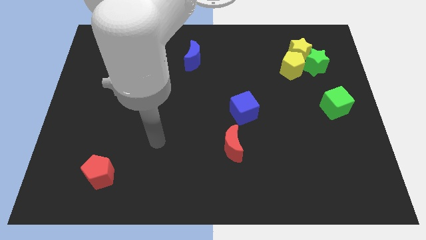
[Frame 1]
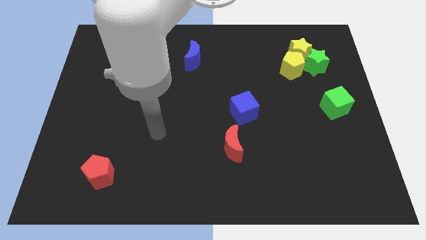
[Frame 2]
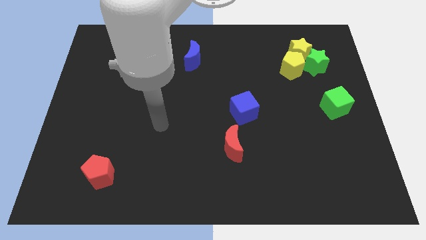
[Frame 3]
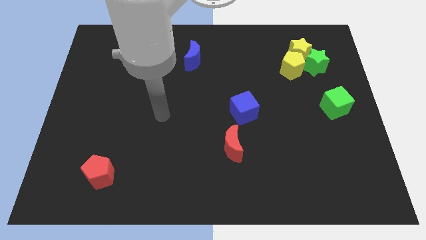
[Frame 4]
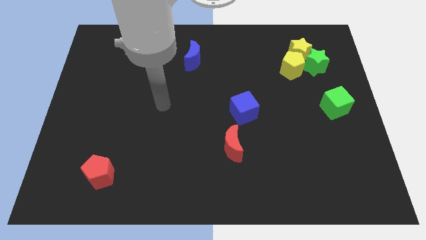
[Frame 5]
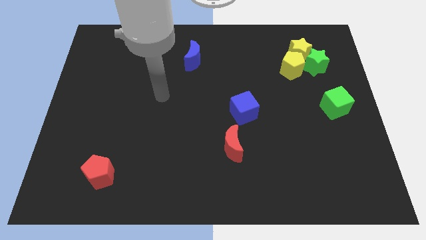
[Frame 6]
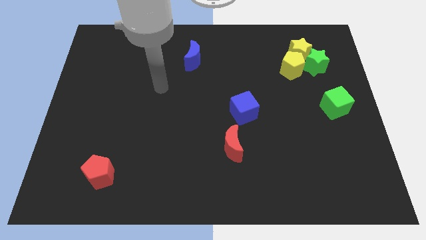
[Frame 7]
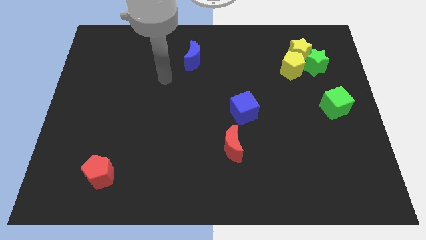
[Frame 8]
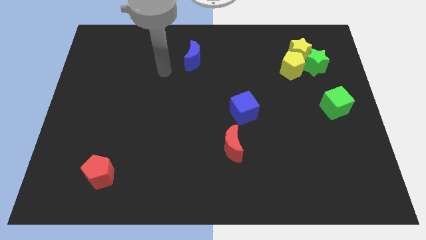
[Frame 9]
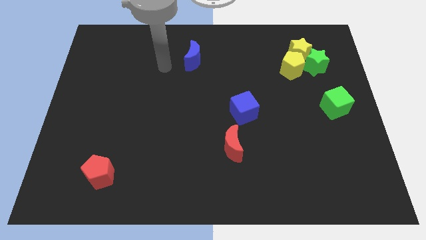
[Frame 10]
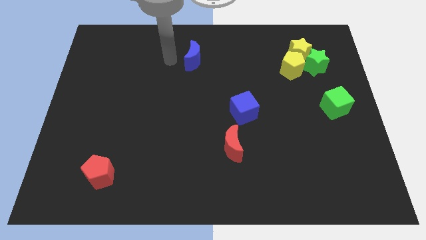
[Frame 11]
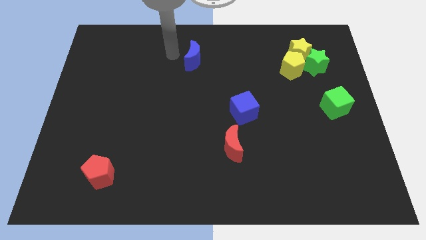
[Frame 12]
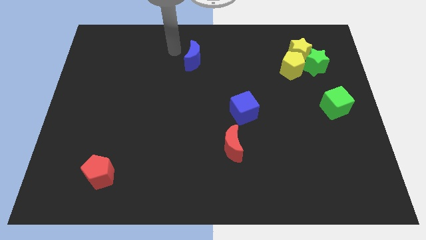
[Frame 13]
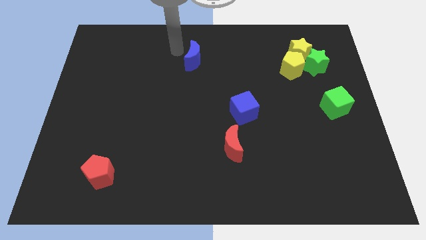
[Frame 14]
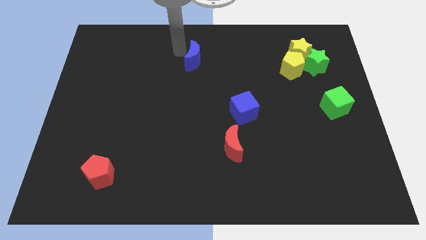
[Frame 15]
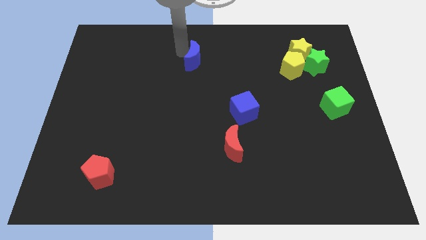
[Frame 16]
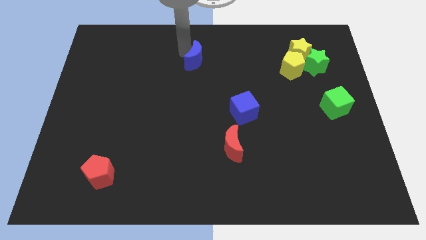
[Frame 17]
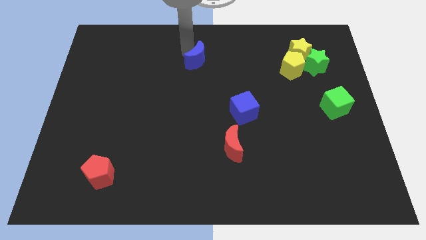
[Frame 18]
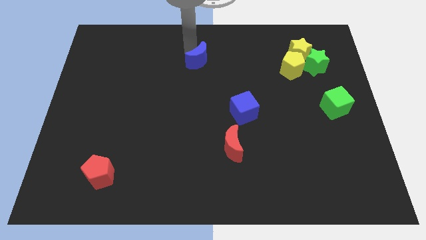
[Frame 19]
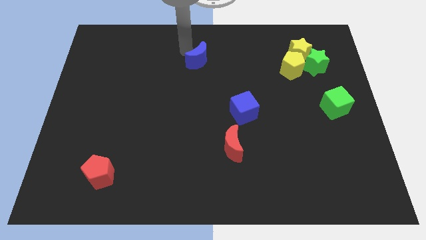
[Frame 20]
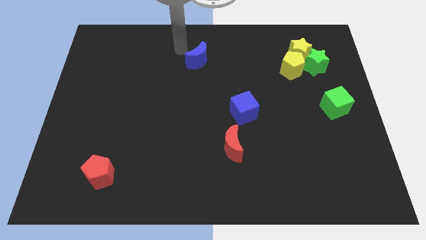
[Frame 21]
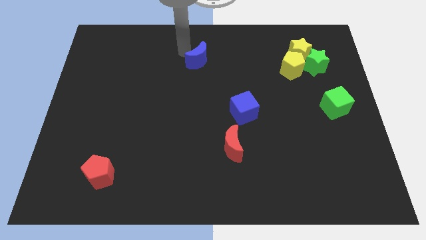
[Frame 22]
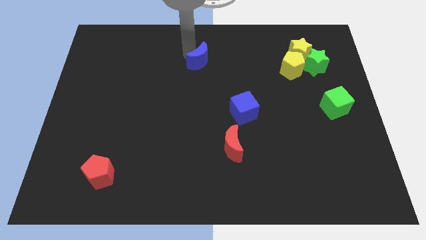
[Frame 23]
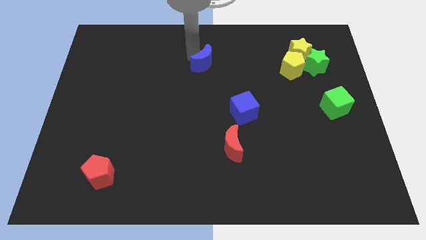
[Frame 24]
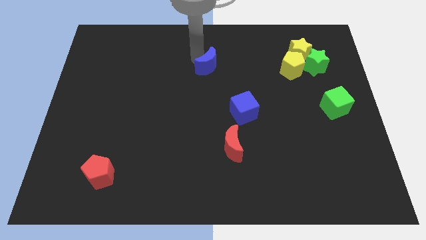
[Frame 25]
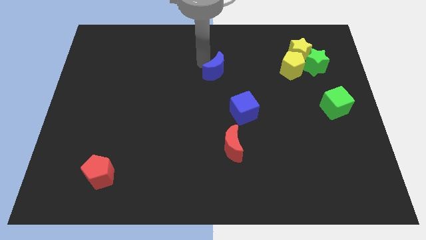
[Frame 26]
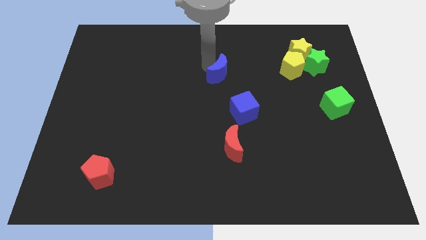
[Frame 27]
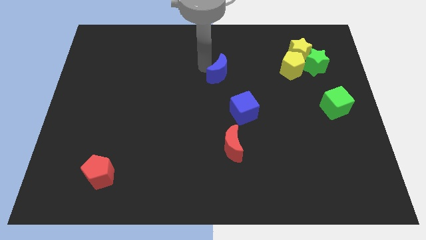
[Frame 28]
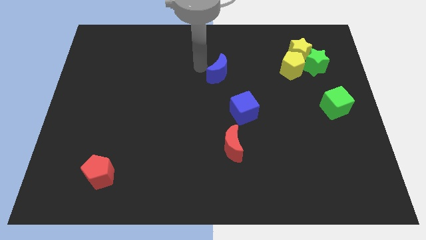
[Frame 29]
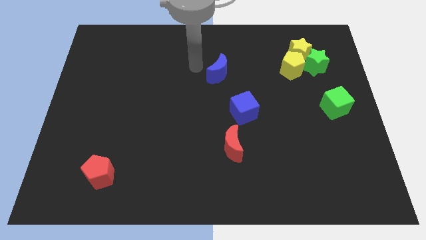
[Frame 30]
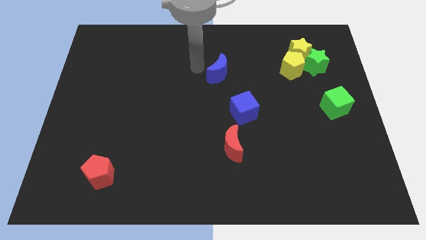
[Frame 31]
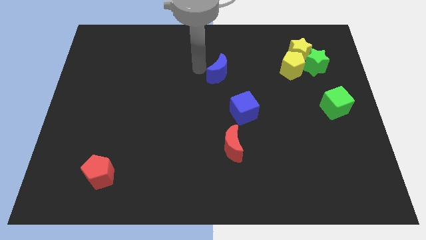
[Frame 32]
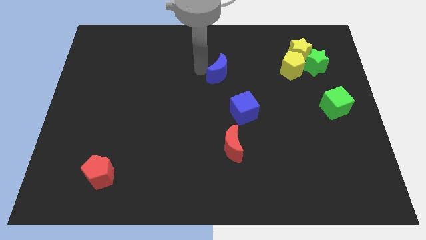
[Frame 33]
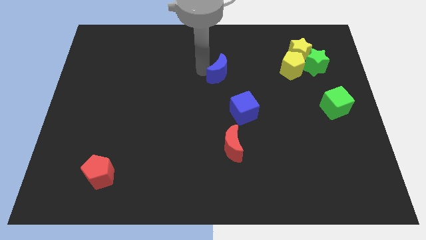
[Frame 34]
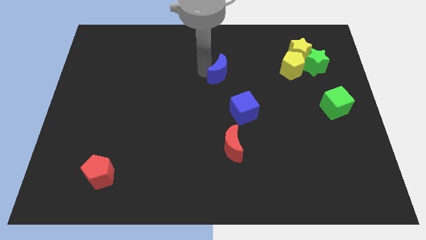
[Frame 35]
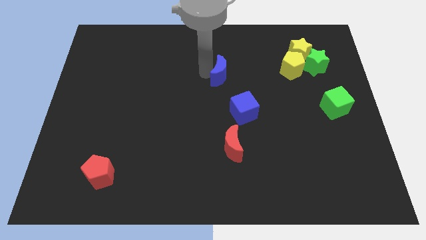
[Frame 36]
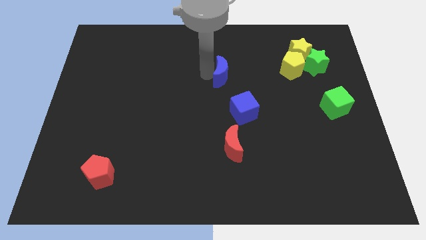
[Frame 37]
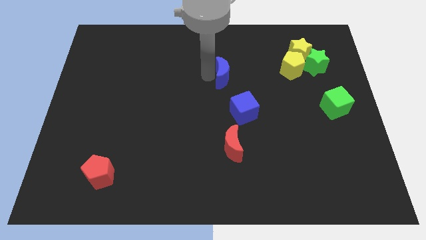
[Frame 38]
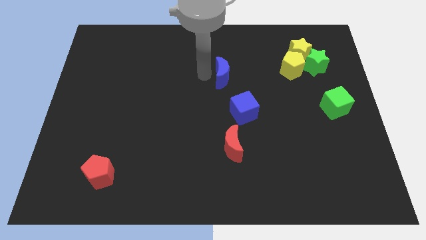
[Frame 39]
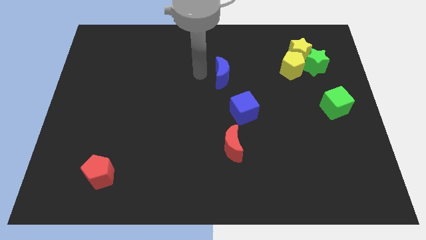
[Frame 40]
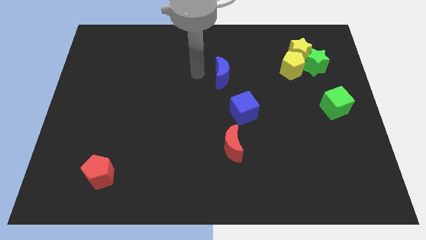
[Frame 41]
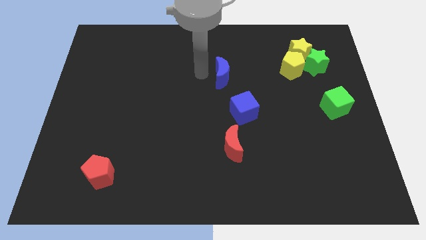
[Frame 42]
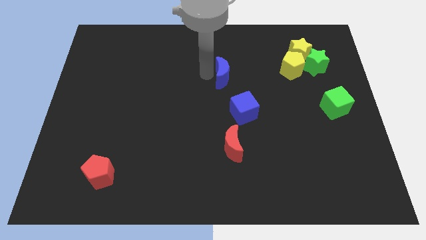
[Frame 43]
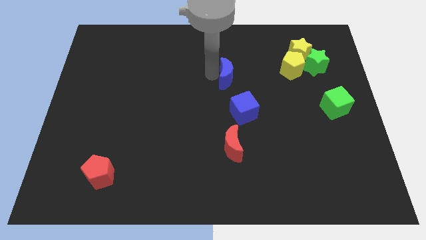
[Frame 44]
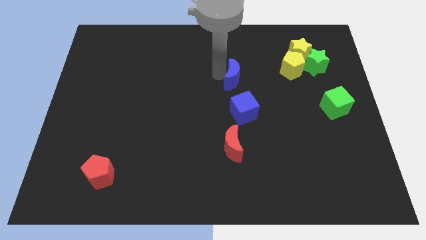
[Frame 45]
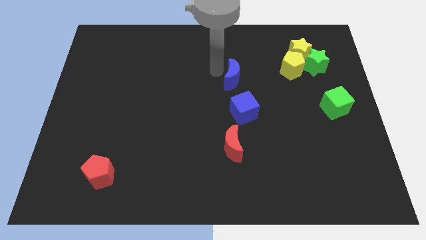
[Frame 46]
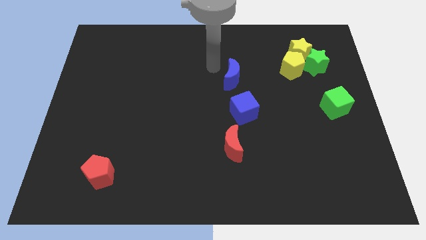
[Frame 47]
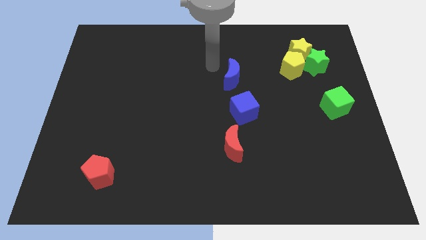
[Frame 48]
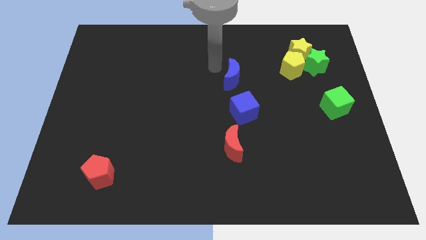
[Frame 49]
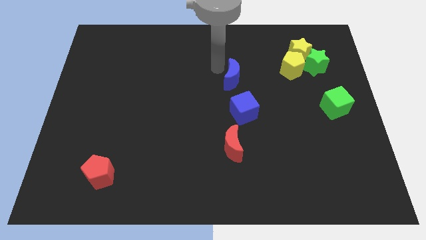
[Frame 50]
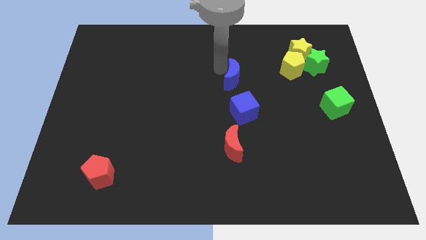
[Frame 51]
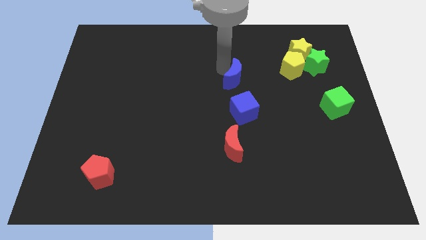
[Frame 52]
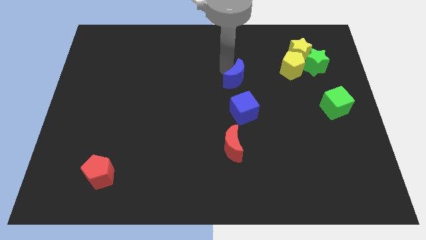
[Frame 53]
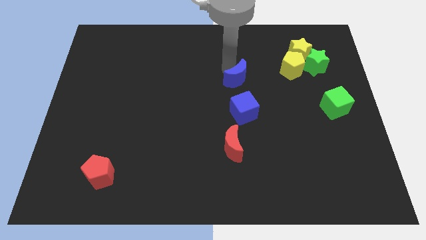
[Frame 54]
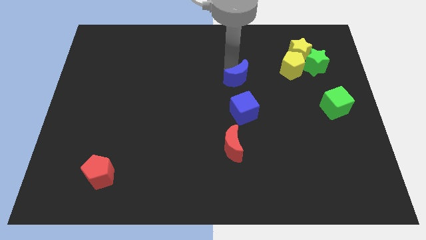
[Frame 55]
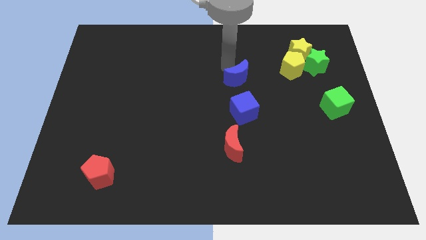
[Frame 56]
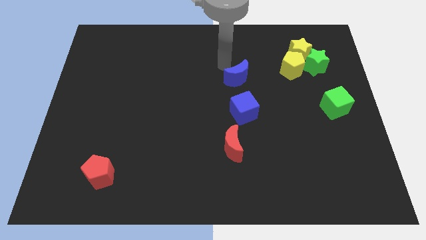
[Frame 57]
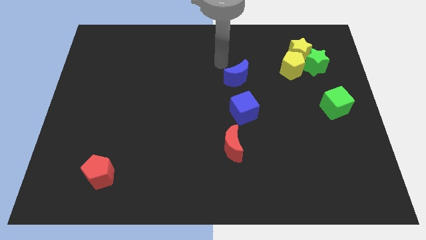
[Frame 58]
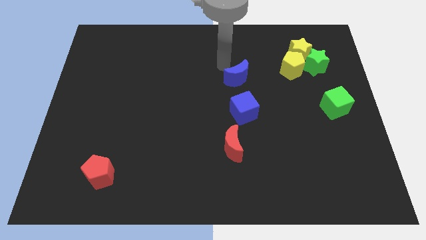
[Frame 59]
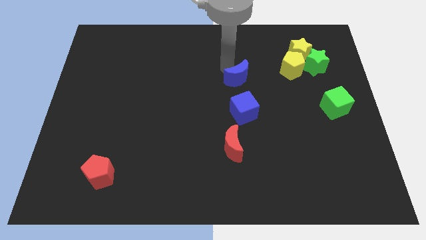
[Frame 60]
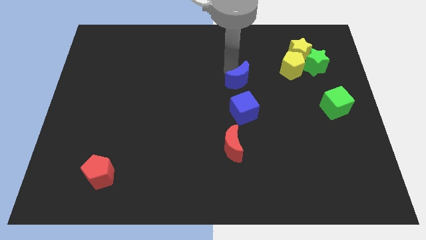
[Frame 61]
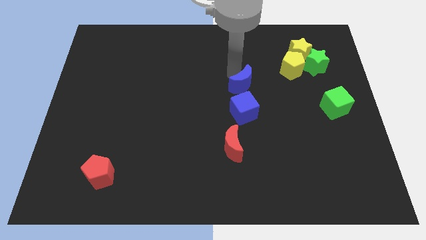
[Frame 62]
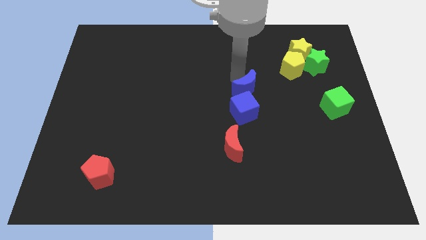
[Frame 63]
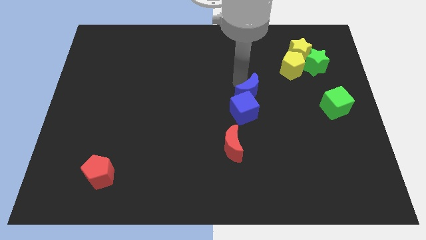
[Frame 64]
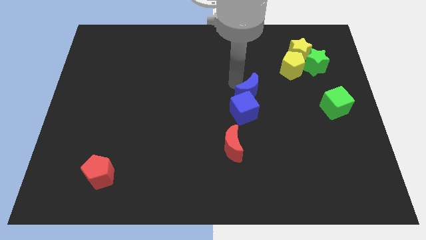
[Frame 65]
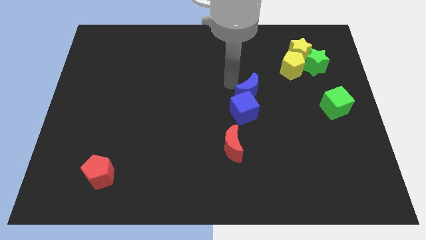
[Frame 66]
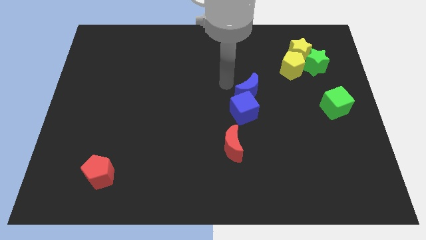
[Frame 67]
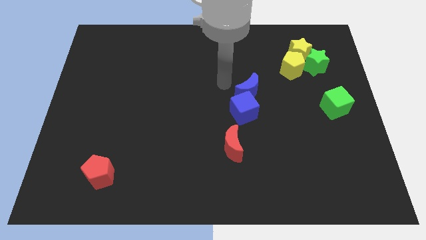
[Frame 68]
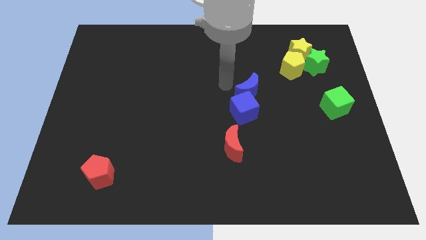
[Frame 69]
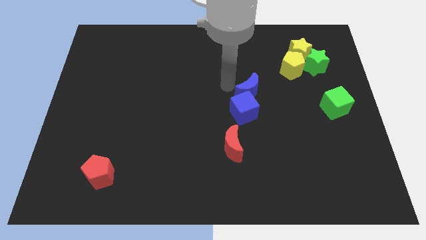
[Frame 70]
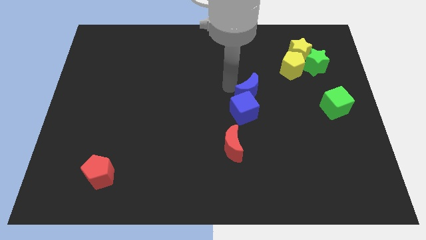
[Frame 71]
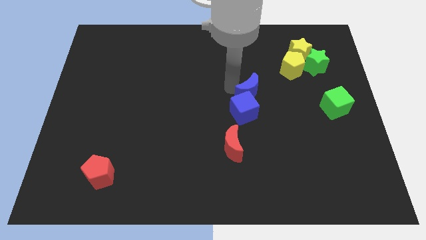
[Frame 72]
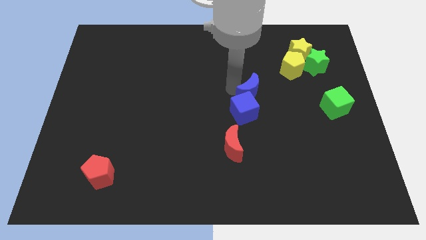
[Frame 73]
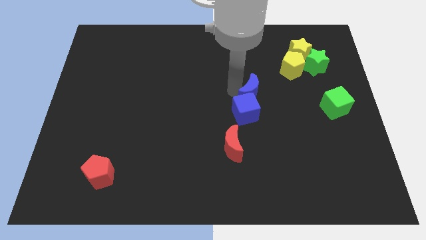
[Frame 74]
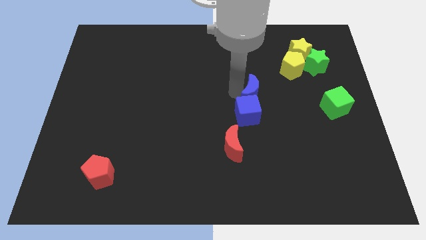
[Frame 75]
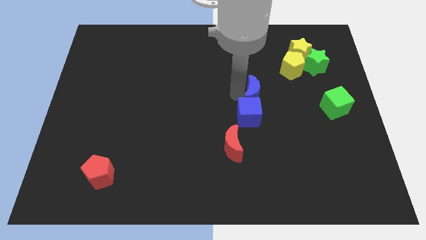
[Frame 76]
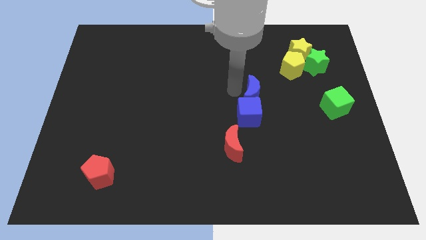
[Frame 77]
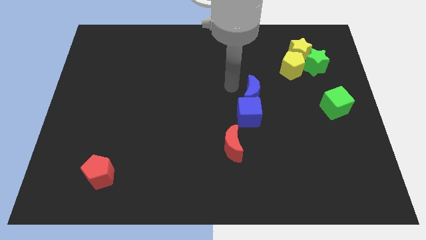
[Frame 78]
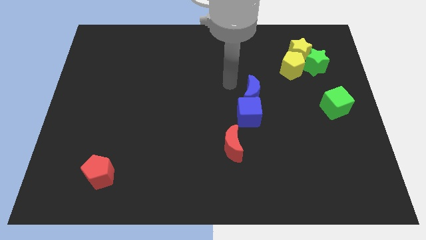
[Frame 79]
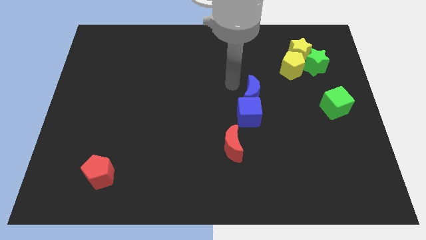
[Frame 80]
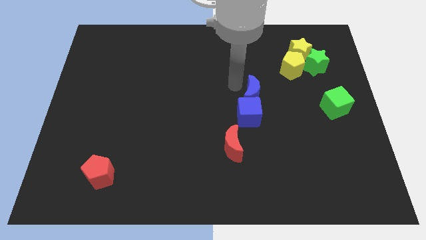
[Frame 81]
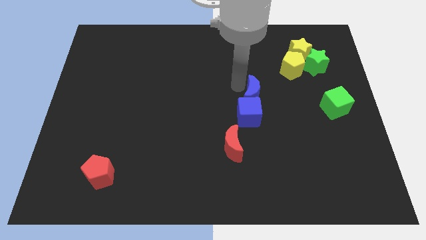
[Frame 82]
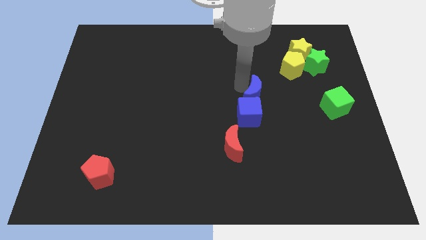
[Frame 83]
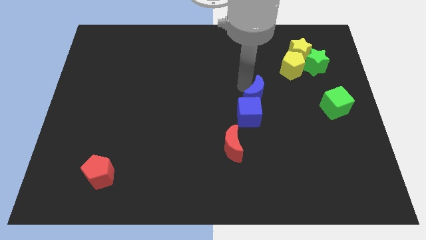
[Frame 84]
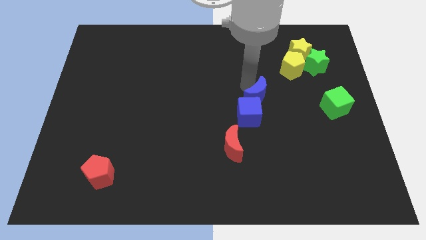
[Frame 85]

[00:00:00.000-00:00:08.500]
push the blue moon diagonally down and right

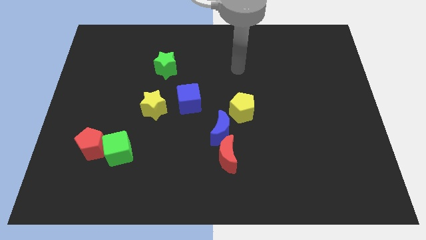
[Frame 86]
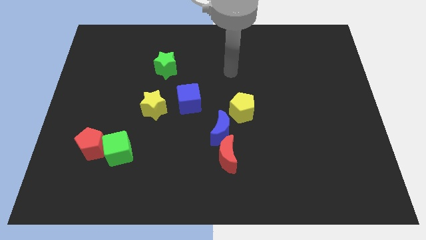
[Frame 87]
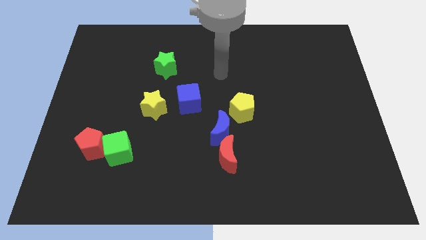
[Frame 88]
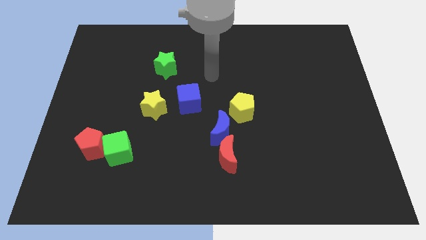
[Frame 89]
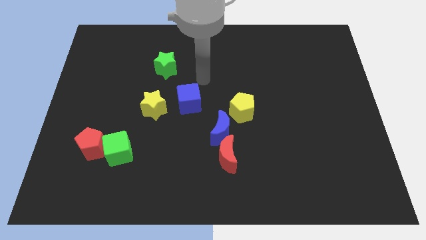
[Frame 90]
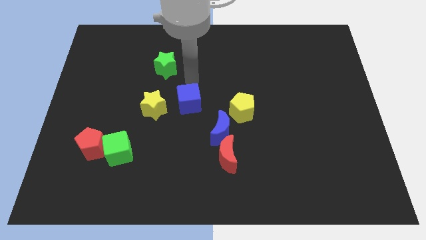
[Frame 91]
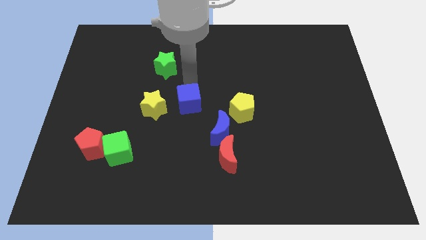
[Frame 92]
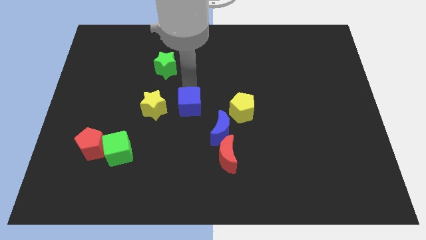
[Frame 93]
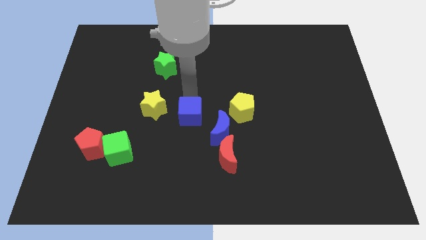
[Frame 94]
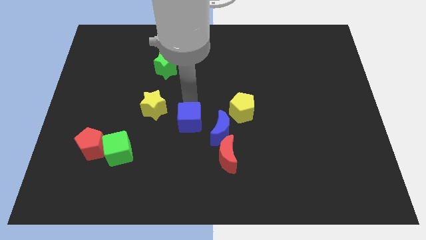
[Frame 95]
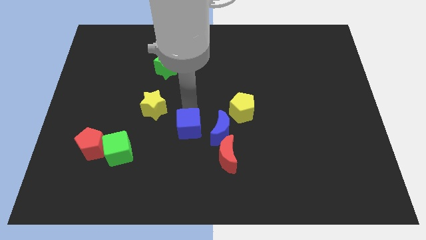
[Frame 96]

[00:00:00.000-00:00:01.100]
push the blue cube a little bit downwards
